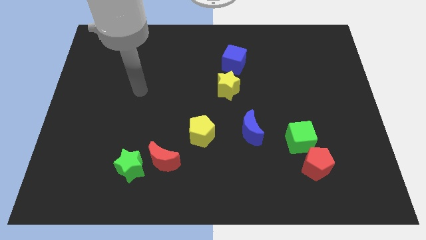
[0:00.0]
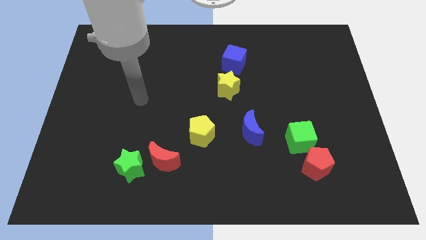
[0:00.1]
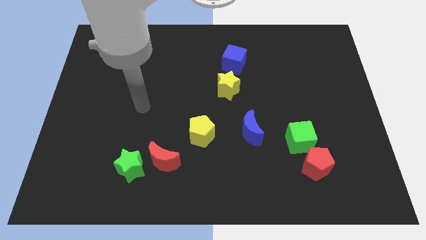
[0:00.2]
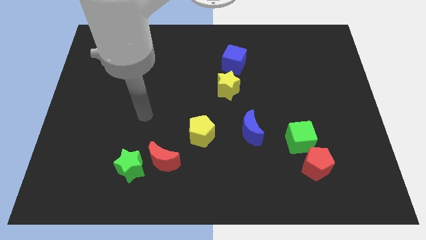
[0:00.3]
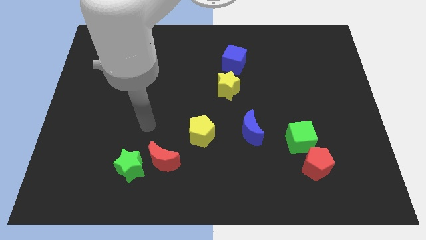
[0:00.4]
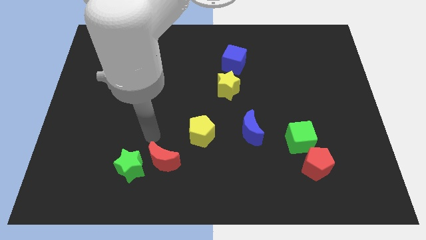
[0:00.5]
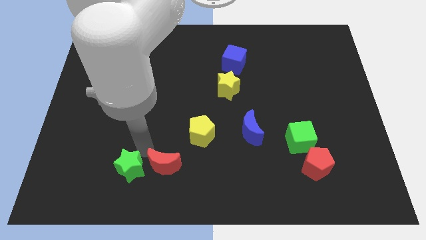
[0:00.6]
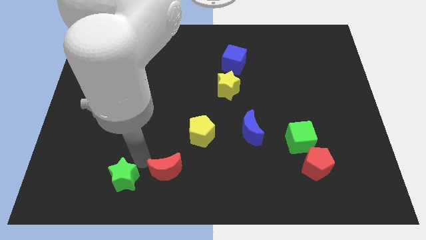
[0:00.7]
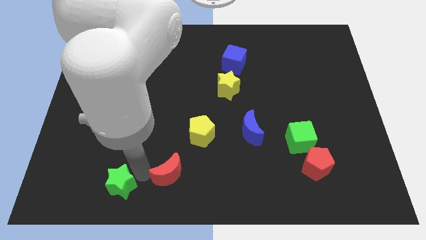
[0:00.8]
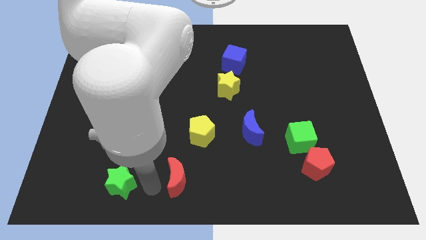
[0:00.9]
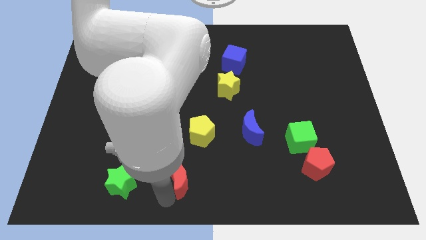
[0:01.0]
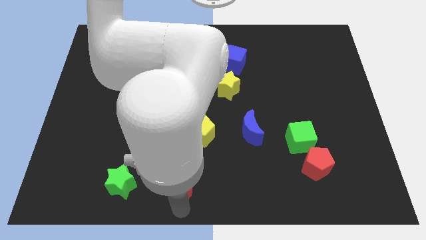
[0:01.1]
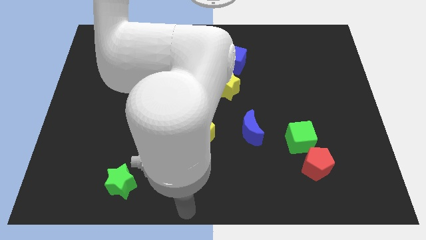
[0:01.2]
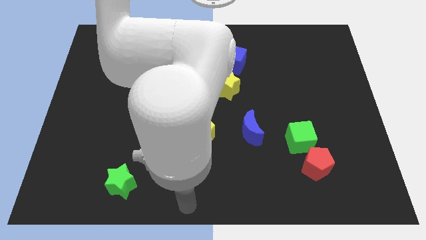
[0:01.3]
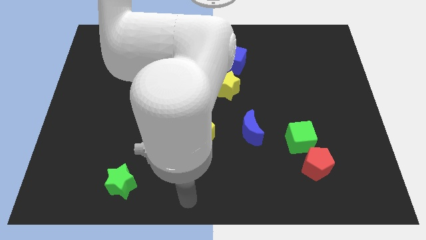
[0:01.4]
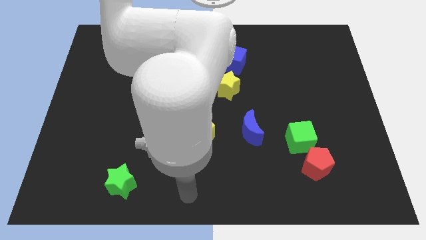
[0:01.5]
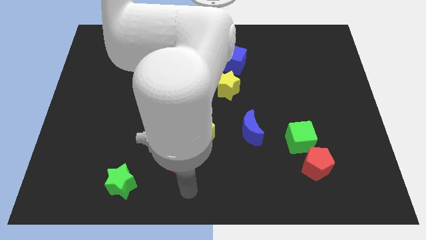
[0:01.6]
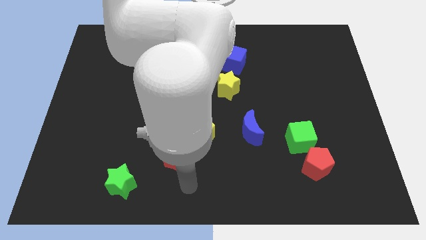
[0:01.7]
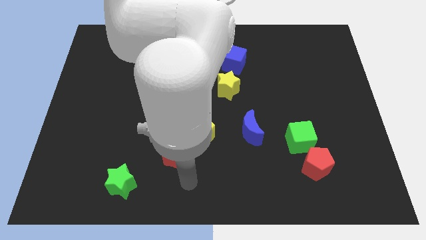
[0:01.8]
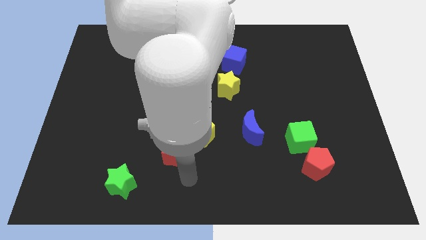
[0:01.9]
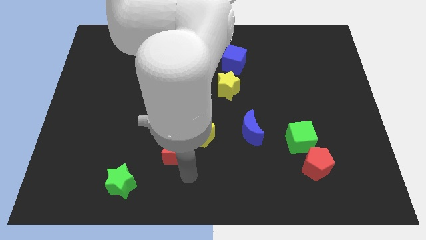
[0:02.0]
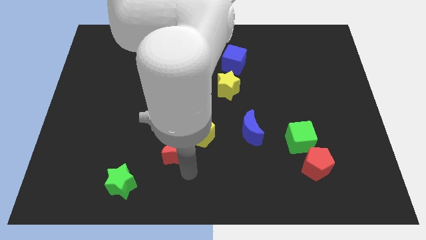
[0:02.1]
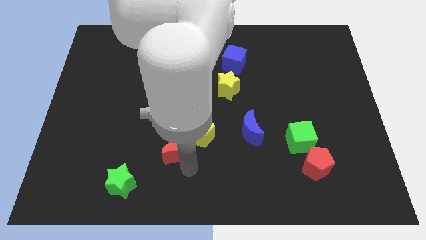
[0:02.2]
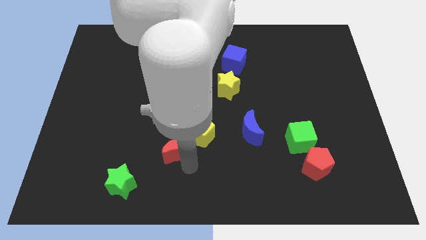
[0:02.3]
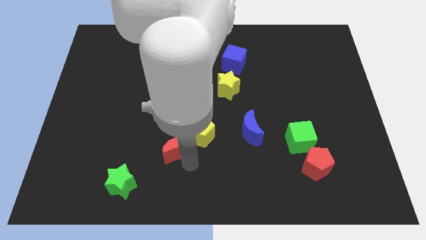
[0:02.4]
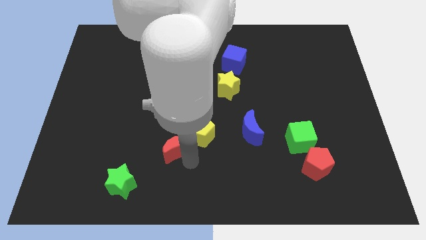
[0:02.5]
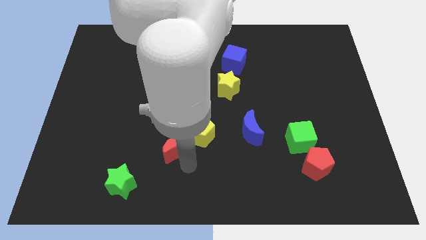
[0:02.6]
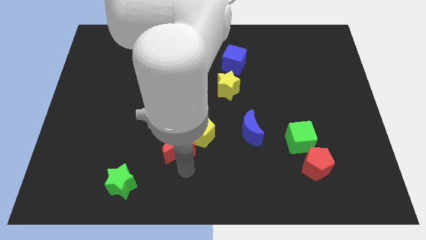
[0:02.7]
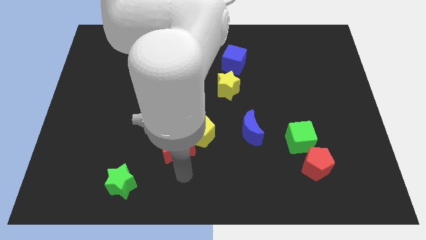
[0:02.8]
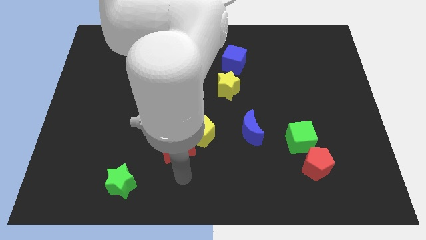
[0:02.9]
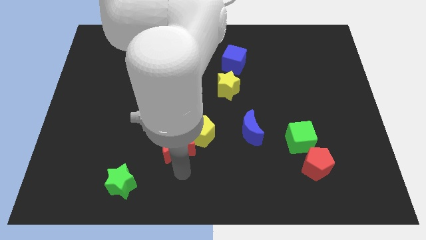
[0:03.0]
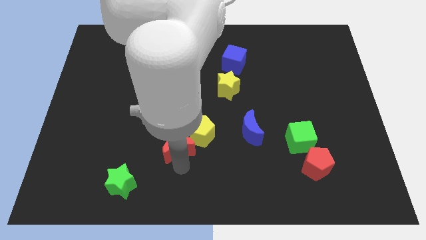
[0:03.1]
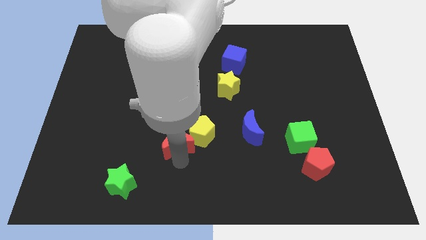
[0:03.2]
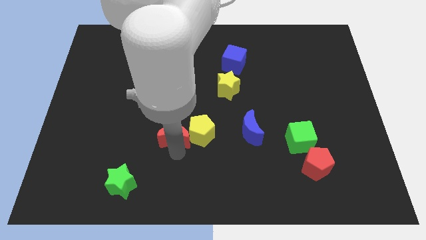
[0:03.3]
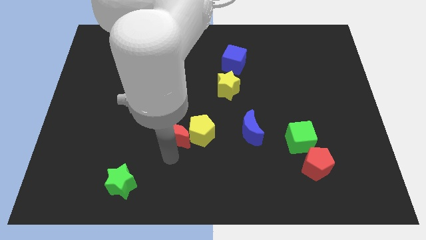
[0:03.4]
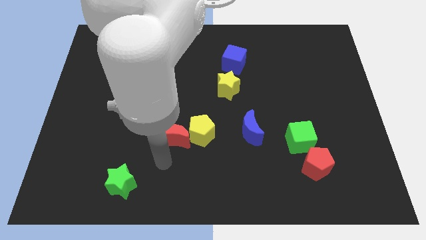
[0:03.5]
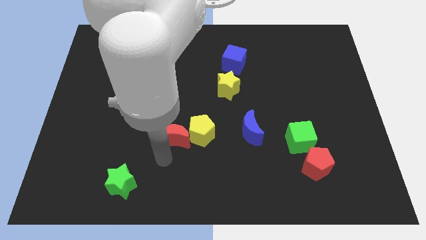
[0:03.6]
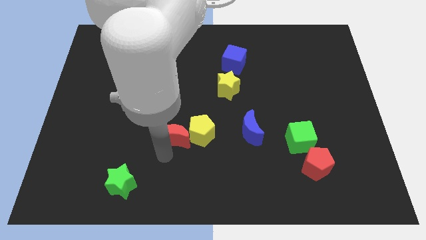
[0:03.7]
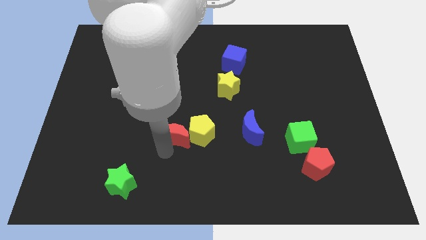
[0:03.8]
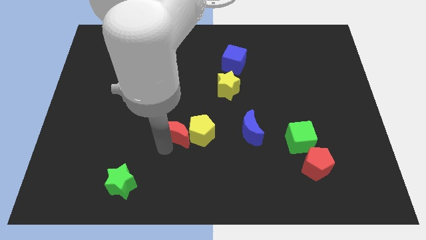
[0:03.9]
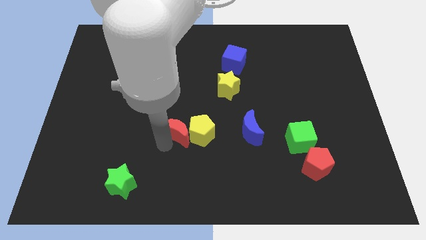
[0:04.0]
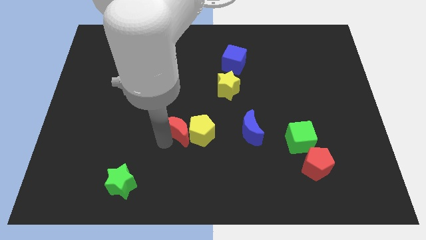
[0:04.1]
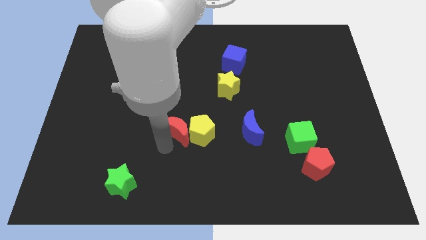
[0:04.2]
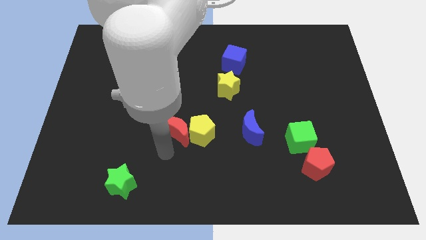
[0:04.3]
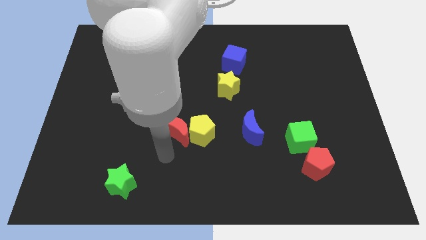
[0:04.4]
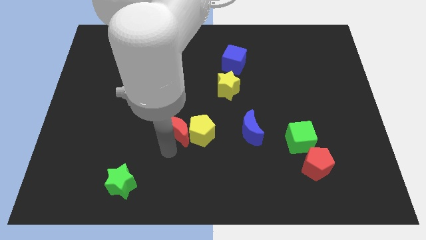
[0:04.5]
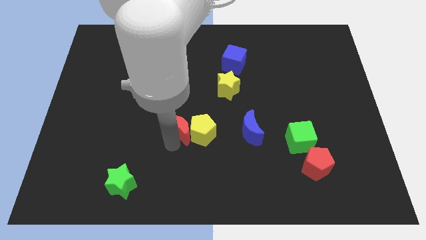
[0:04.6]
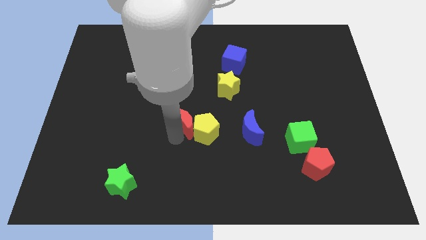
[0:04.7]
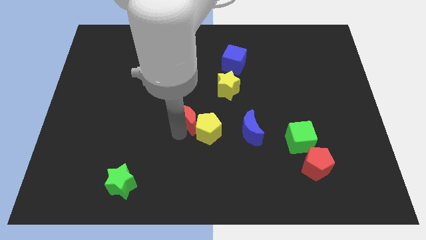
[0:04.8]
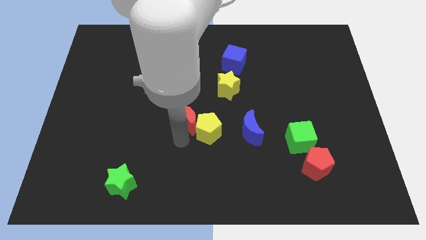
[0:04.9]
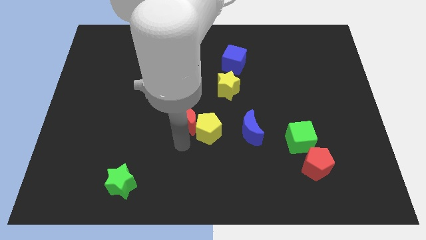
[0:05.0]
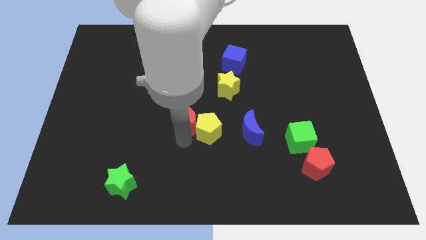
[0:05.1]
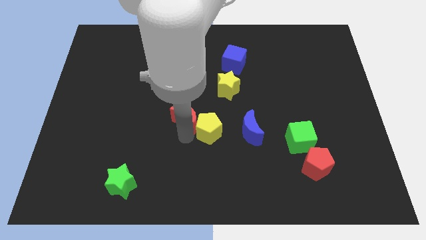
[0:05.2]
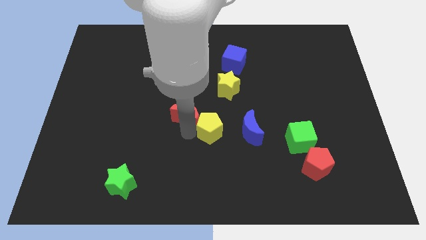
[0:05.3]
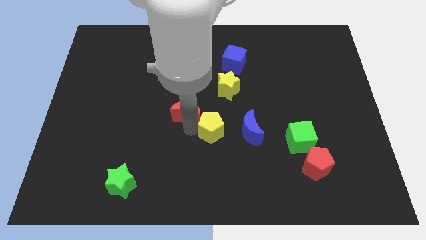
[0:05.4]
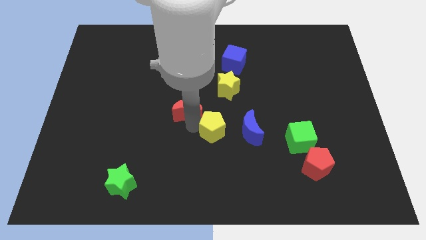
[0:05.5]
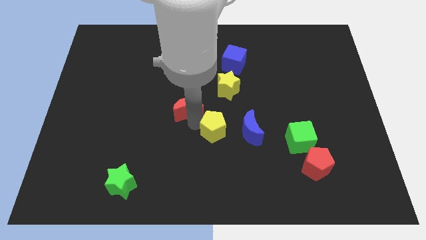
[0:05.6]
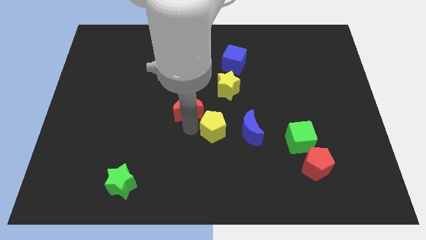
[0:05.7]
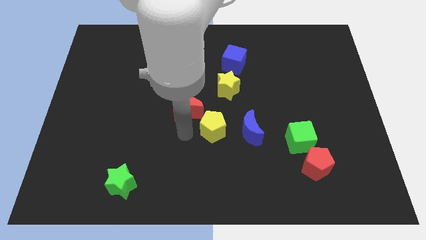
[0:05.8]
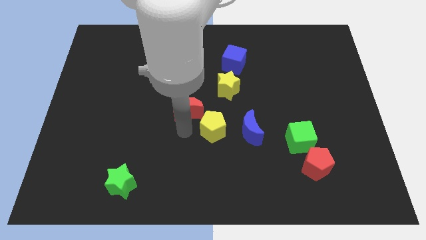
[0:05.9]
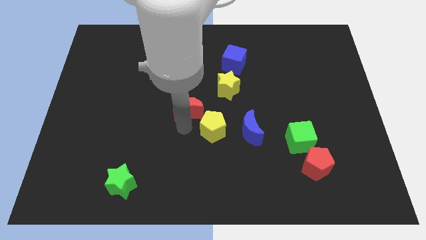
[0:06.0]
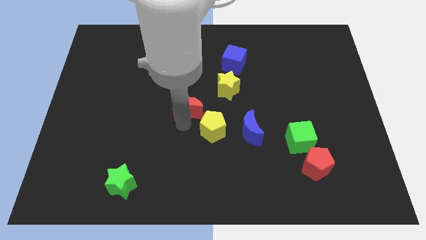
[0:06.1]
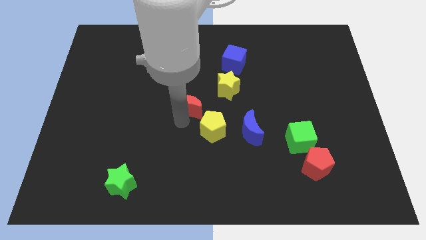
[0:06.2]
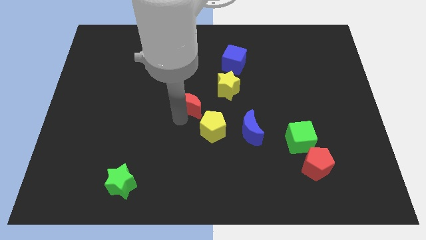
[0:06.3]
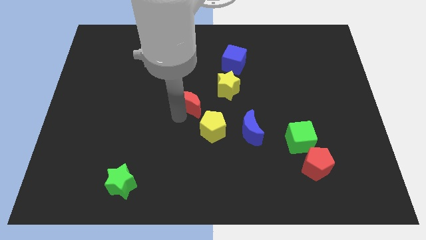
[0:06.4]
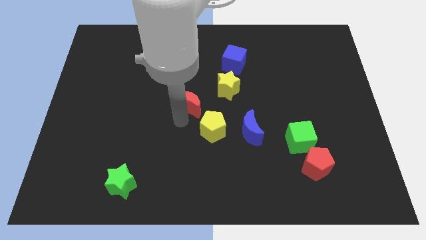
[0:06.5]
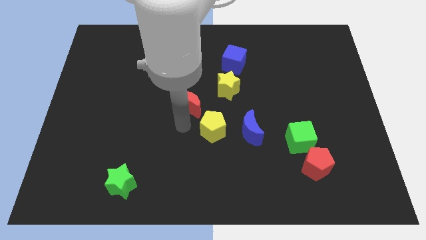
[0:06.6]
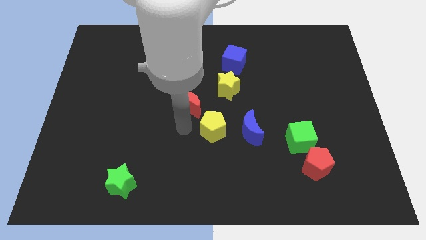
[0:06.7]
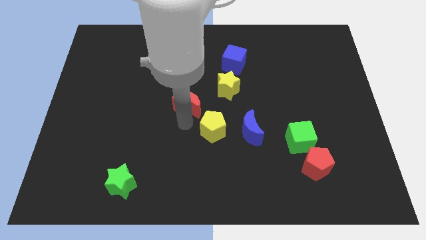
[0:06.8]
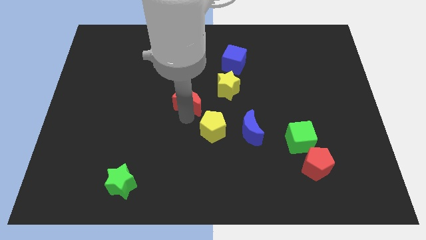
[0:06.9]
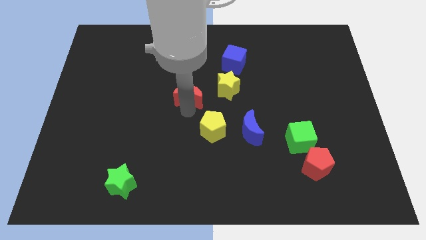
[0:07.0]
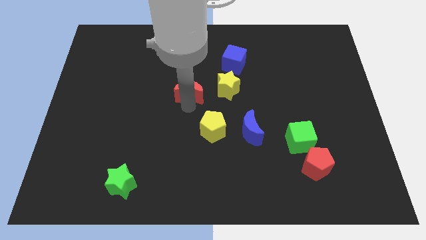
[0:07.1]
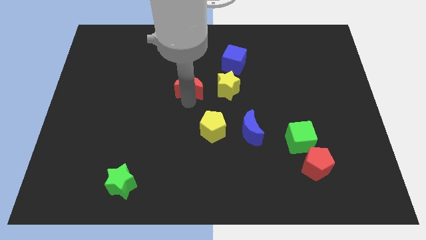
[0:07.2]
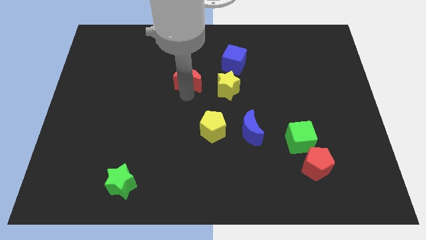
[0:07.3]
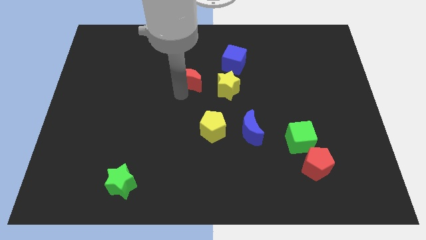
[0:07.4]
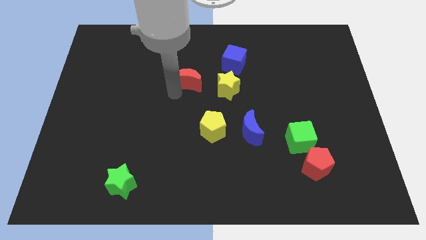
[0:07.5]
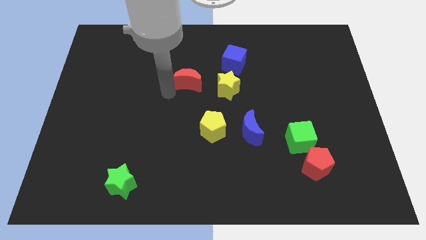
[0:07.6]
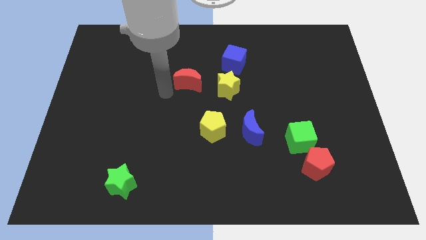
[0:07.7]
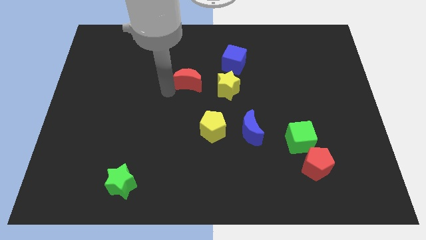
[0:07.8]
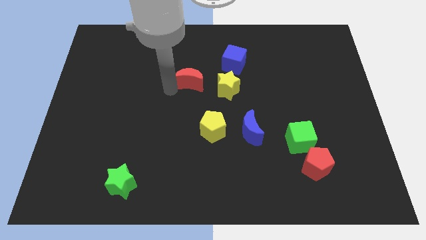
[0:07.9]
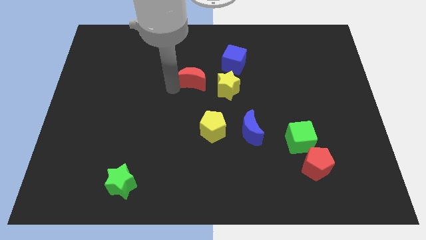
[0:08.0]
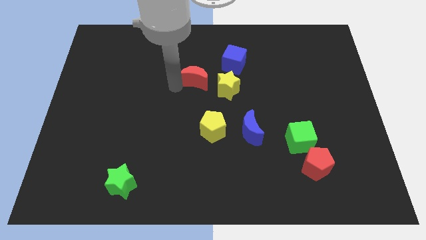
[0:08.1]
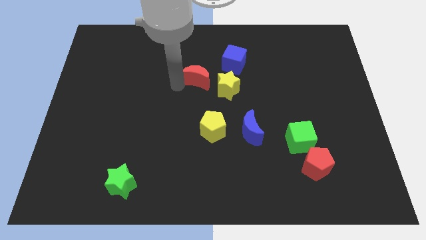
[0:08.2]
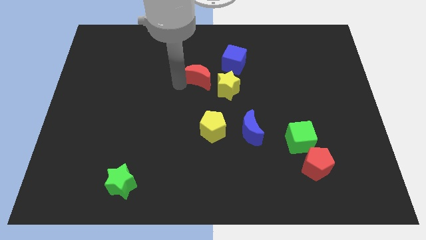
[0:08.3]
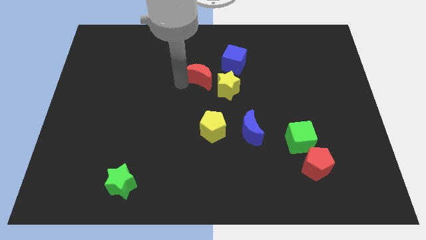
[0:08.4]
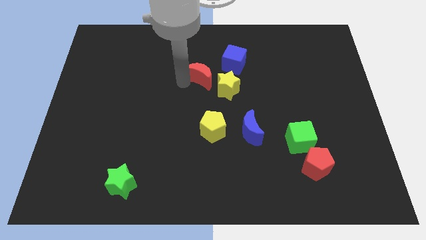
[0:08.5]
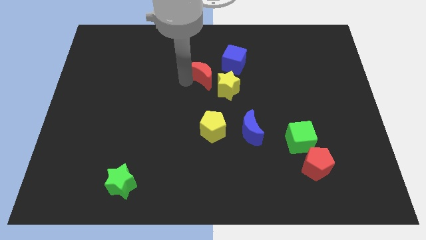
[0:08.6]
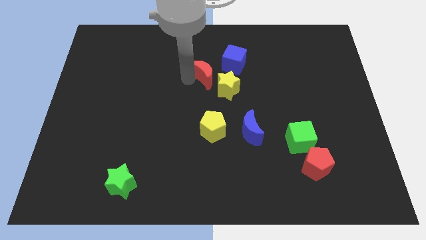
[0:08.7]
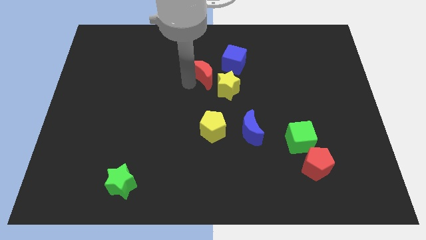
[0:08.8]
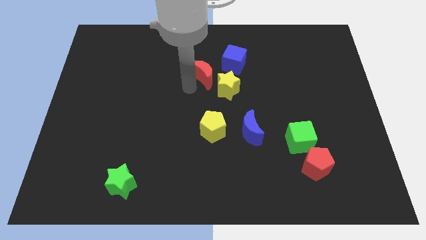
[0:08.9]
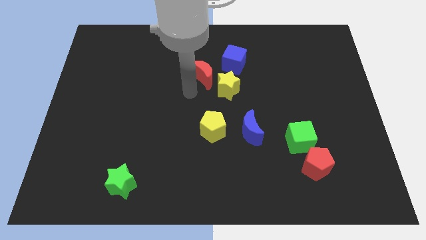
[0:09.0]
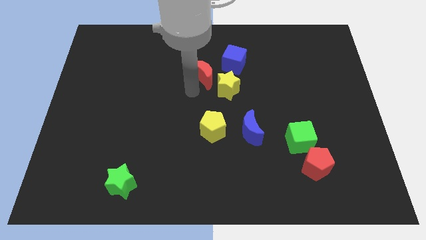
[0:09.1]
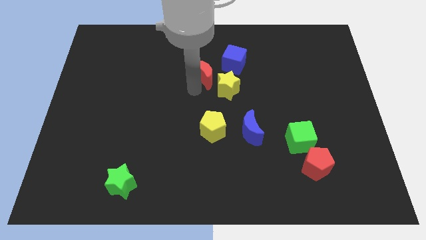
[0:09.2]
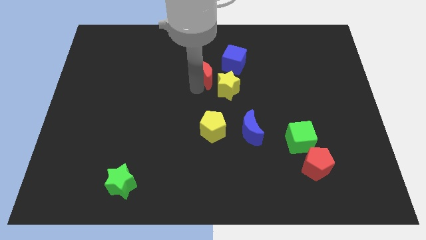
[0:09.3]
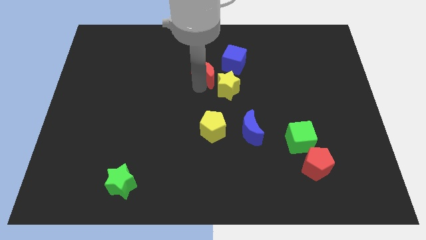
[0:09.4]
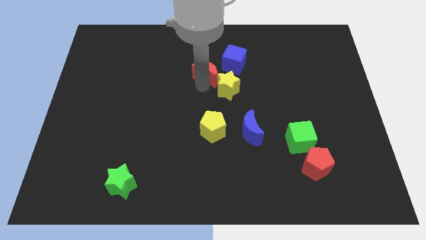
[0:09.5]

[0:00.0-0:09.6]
move the red moon above the yellow star
